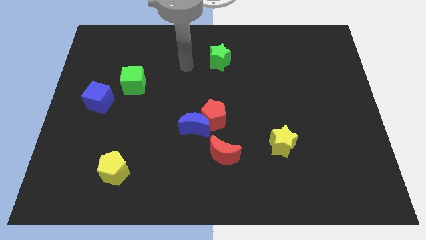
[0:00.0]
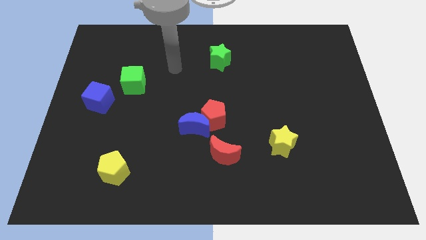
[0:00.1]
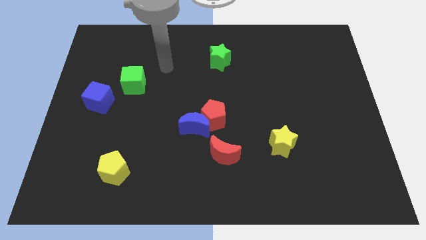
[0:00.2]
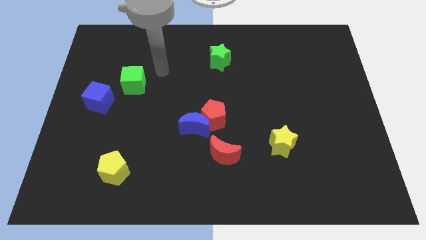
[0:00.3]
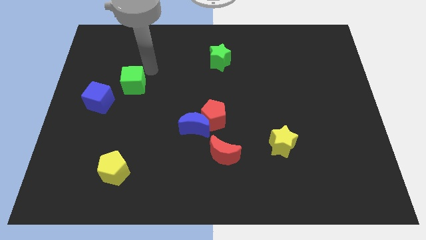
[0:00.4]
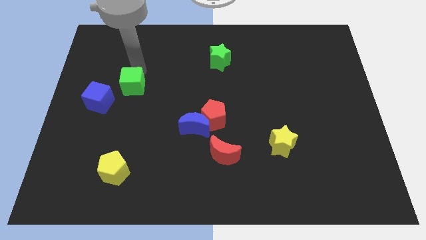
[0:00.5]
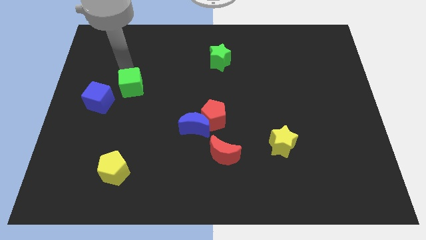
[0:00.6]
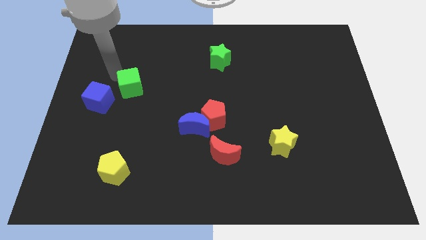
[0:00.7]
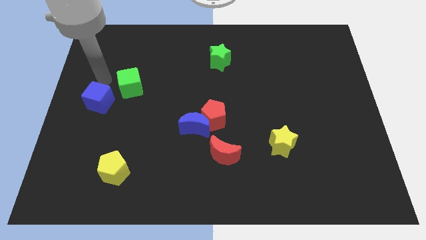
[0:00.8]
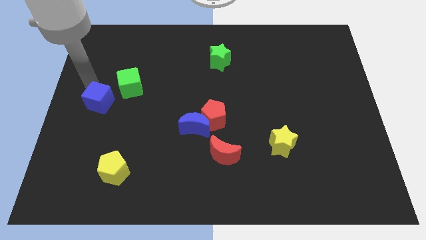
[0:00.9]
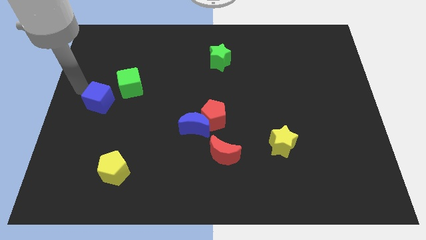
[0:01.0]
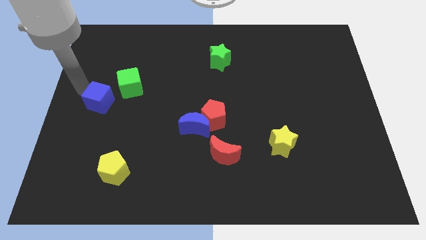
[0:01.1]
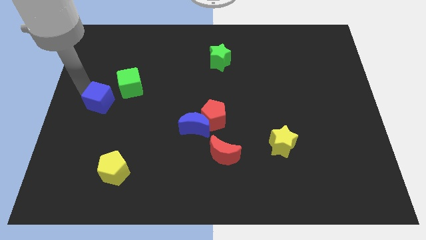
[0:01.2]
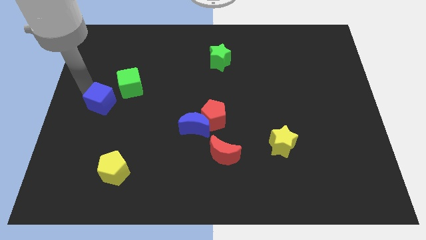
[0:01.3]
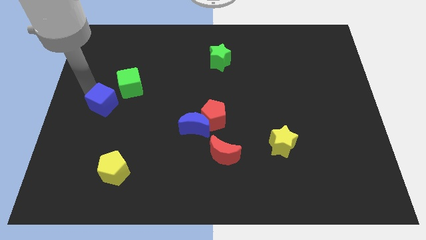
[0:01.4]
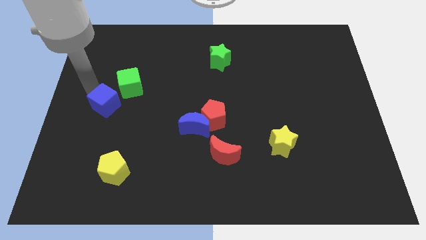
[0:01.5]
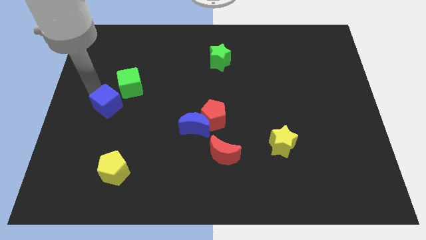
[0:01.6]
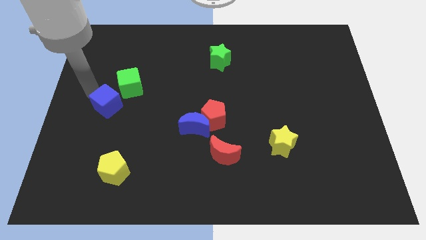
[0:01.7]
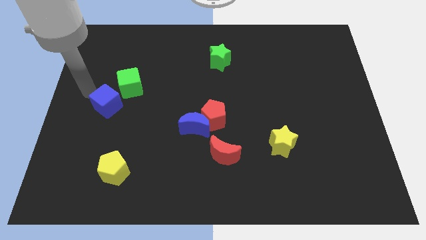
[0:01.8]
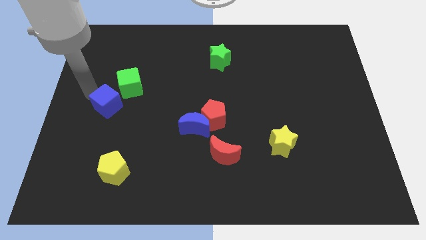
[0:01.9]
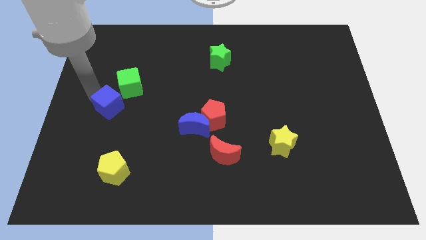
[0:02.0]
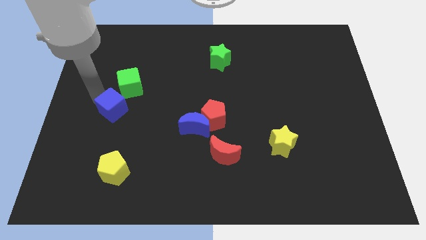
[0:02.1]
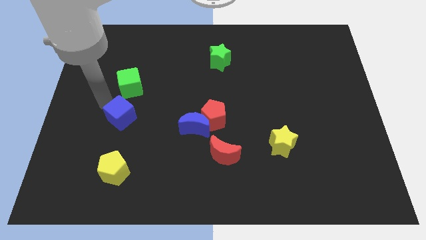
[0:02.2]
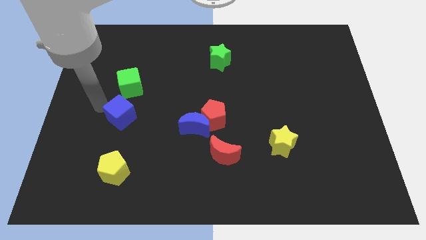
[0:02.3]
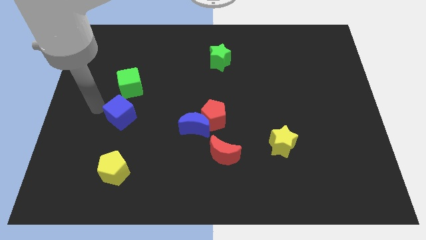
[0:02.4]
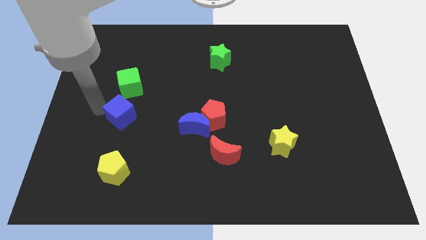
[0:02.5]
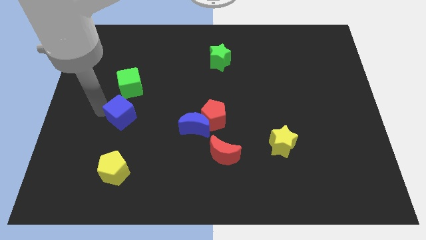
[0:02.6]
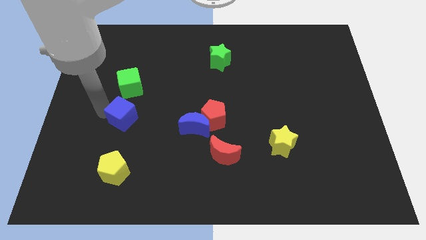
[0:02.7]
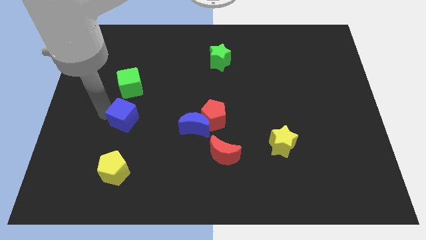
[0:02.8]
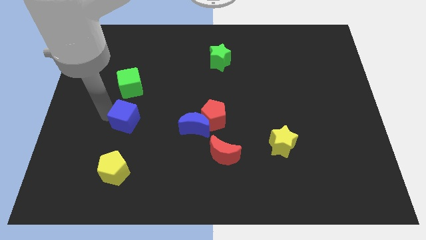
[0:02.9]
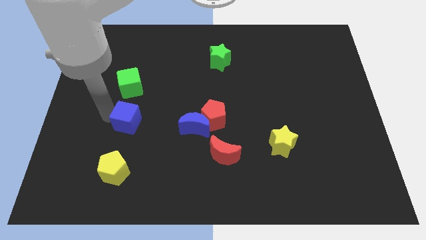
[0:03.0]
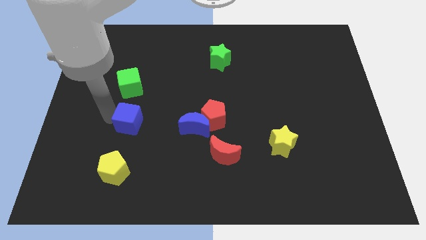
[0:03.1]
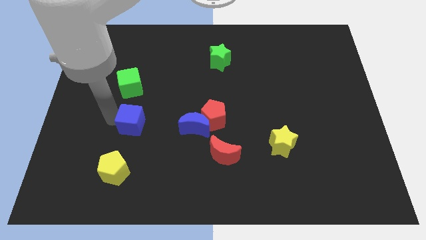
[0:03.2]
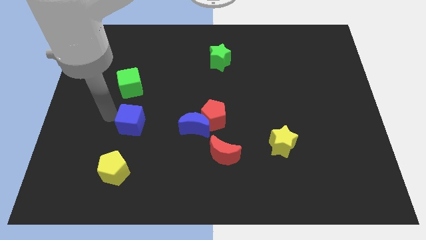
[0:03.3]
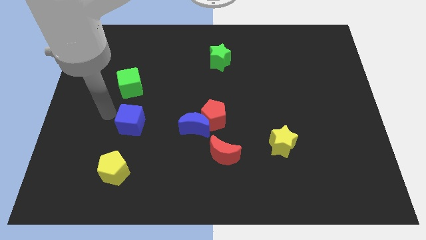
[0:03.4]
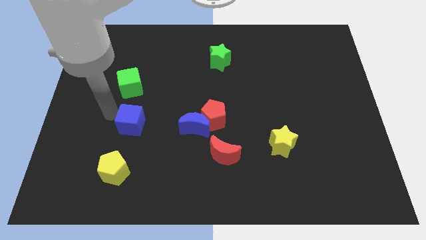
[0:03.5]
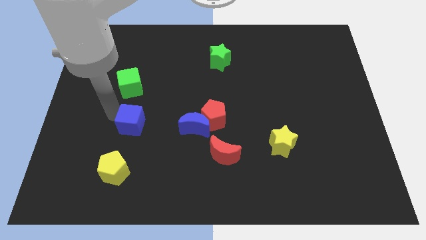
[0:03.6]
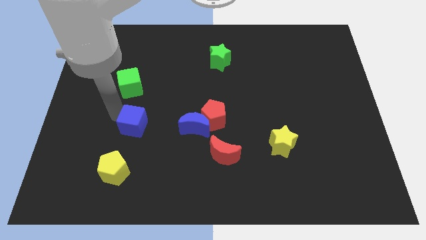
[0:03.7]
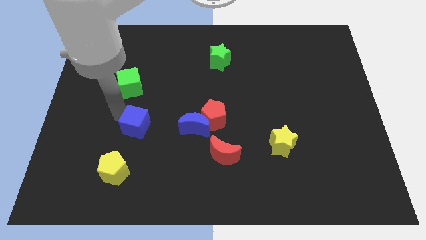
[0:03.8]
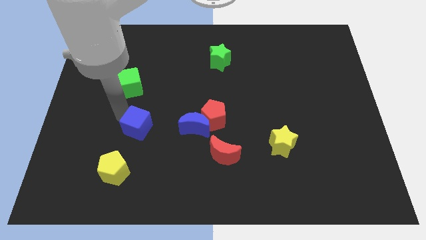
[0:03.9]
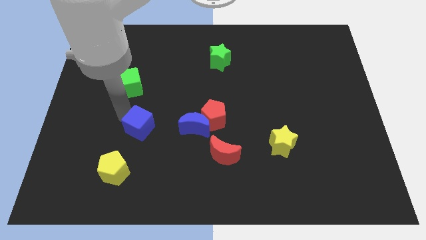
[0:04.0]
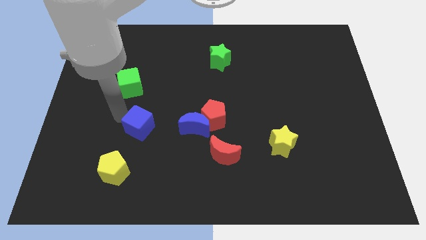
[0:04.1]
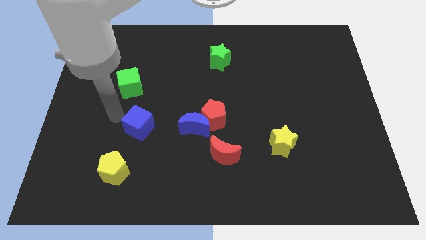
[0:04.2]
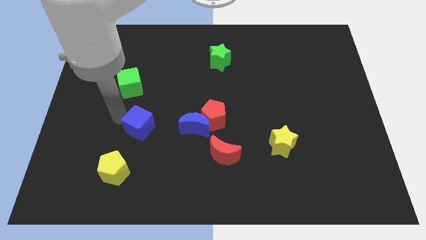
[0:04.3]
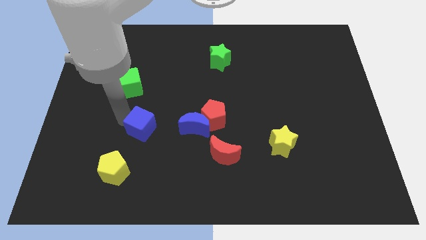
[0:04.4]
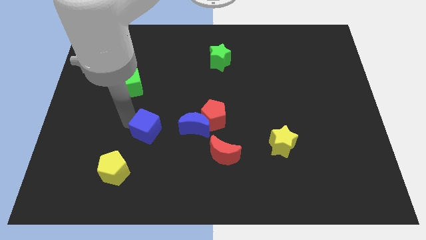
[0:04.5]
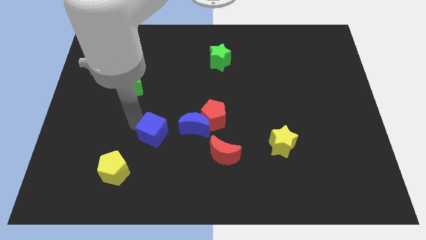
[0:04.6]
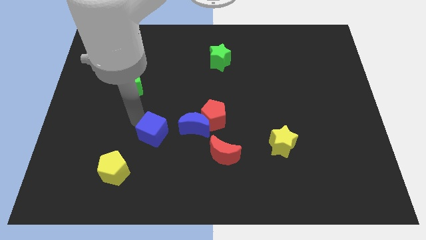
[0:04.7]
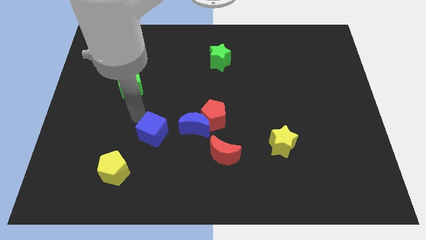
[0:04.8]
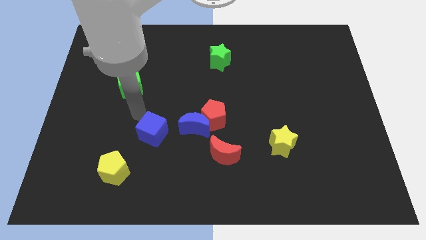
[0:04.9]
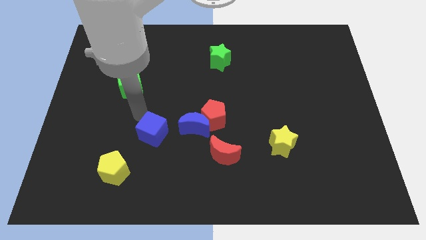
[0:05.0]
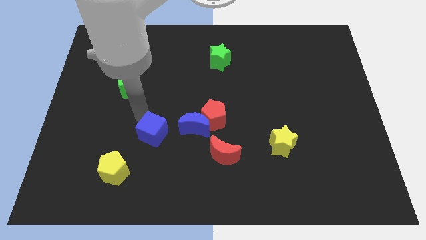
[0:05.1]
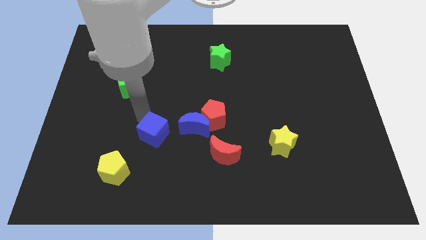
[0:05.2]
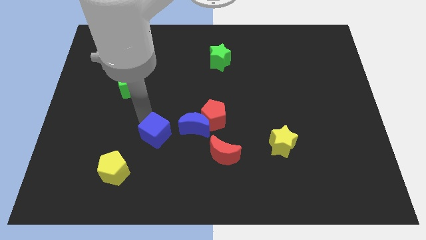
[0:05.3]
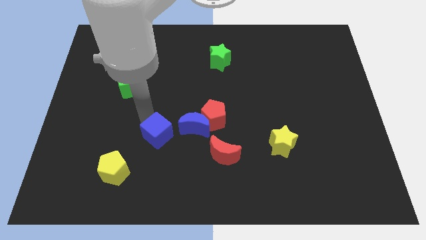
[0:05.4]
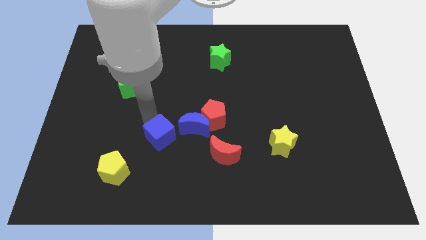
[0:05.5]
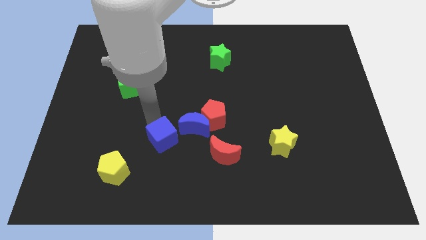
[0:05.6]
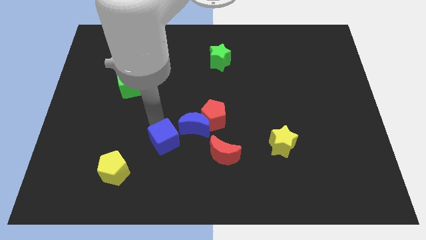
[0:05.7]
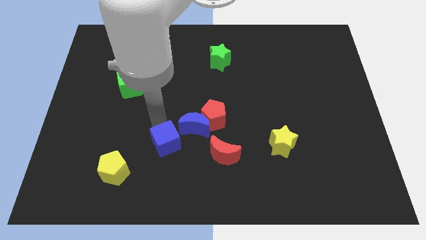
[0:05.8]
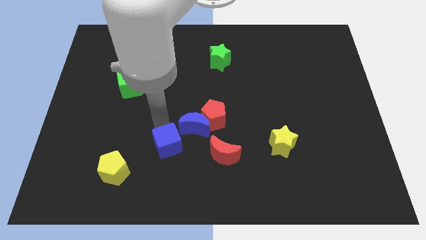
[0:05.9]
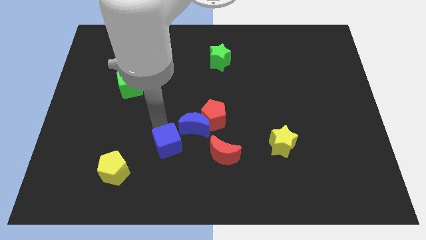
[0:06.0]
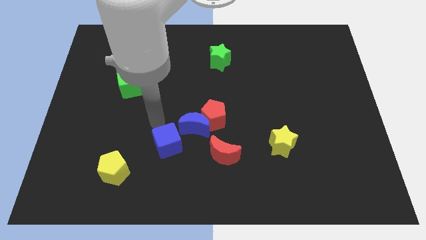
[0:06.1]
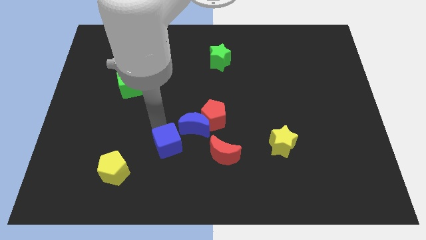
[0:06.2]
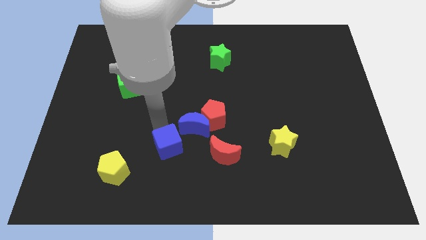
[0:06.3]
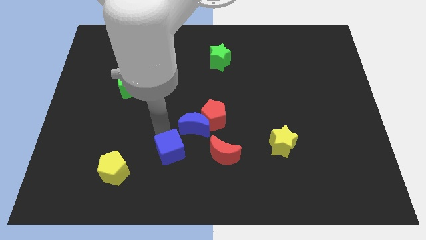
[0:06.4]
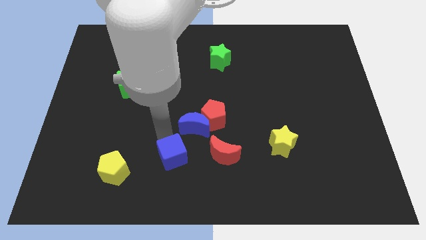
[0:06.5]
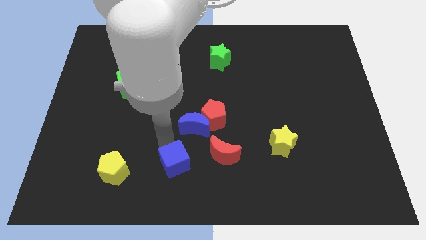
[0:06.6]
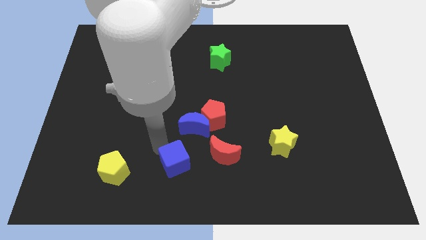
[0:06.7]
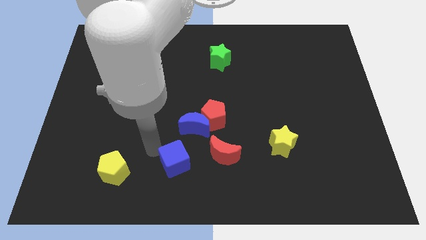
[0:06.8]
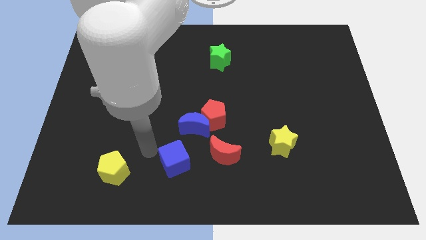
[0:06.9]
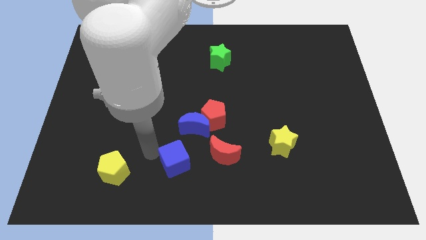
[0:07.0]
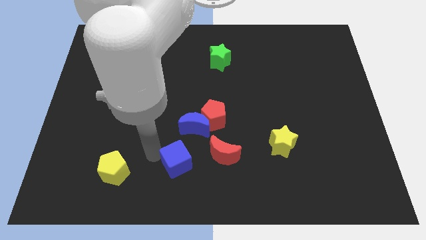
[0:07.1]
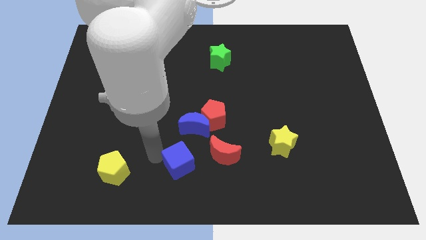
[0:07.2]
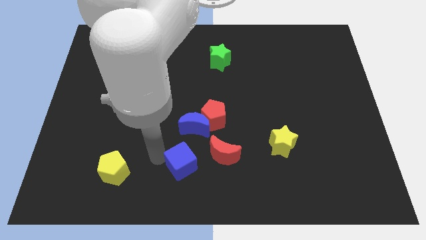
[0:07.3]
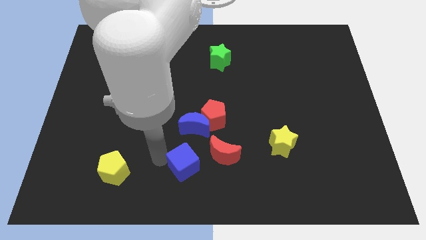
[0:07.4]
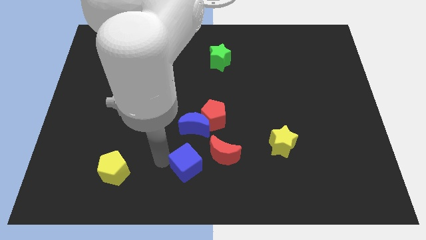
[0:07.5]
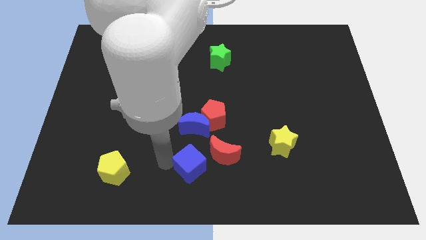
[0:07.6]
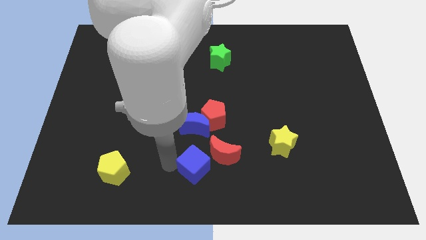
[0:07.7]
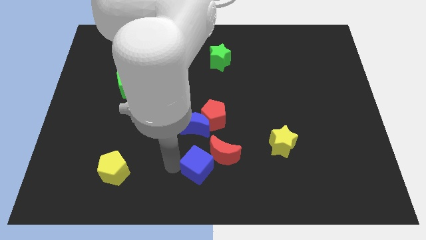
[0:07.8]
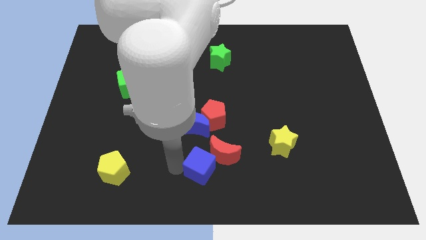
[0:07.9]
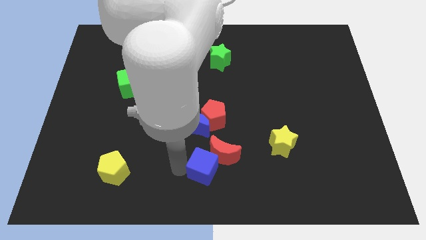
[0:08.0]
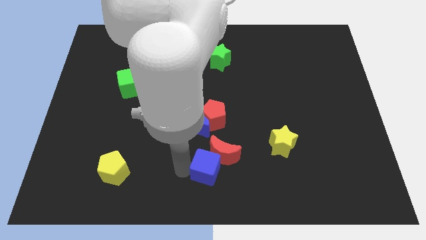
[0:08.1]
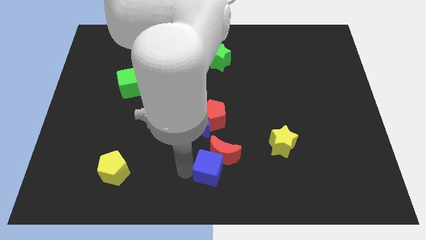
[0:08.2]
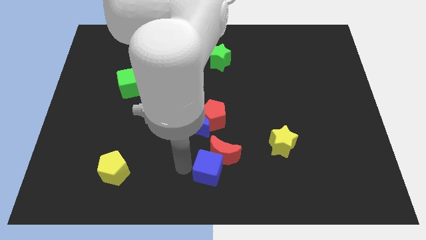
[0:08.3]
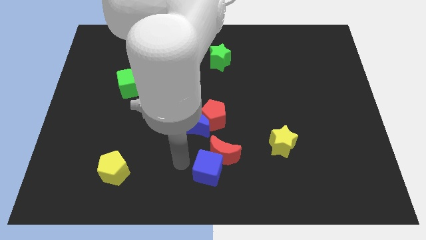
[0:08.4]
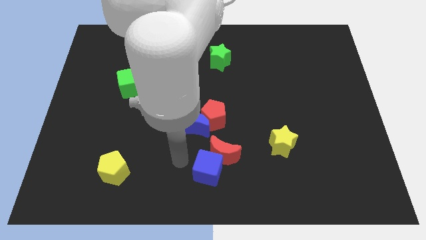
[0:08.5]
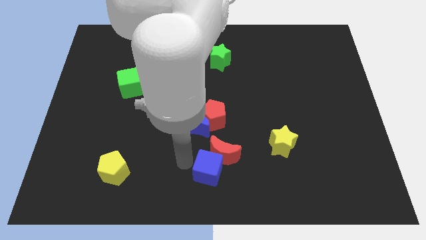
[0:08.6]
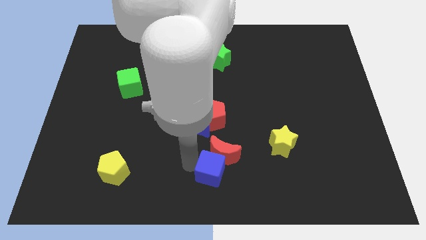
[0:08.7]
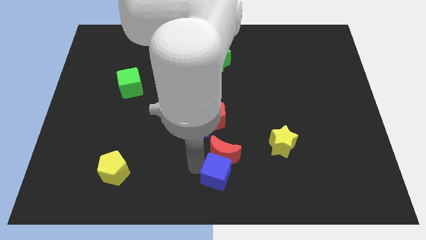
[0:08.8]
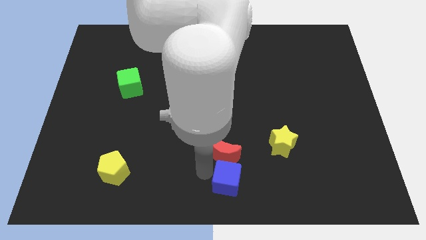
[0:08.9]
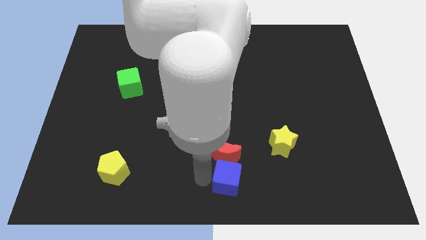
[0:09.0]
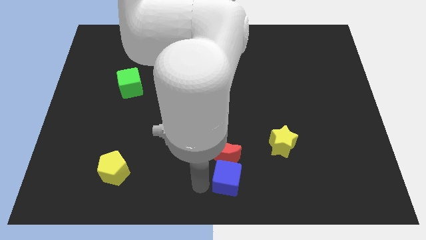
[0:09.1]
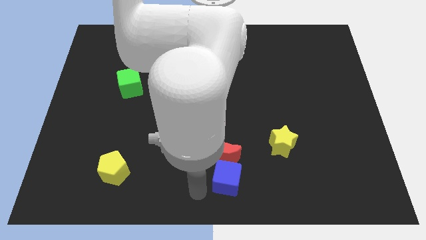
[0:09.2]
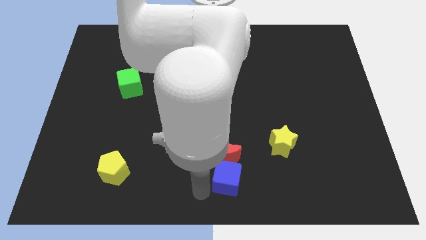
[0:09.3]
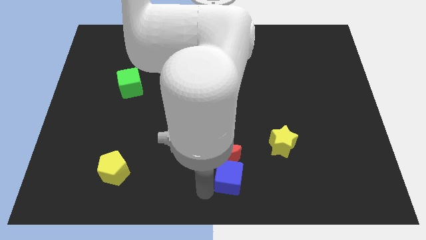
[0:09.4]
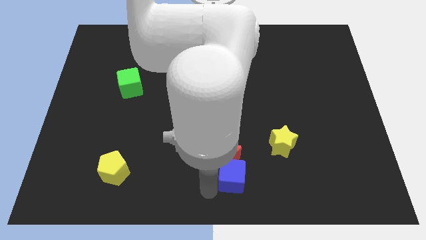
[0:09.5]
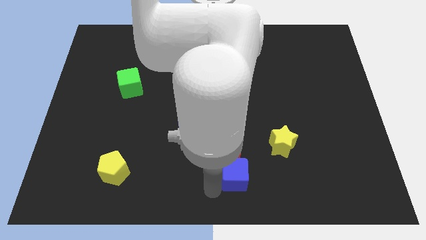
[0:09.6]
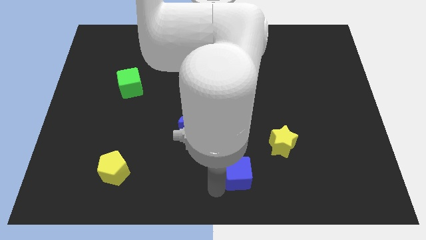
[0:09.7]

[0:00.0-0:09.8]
put the blue cube diagonally down and to the left of the yellow star
